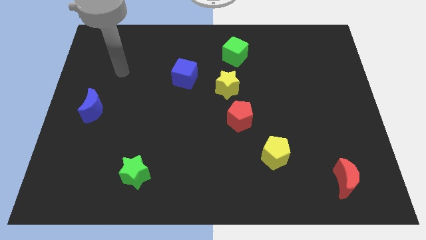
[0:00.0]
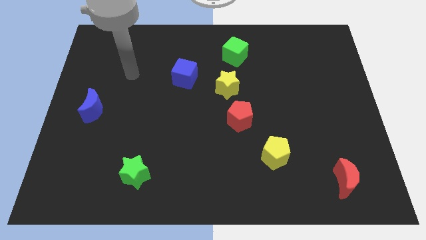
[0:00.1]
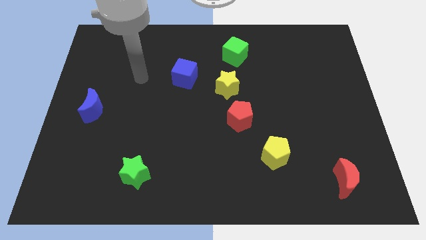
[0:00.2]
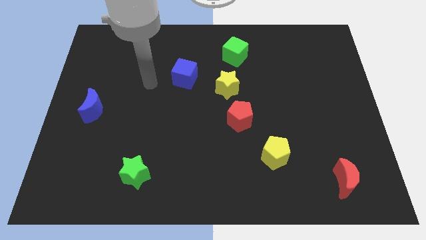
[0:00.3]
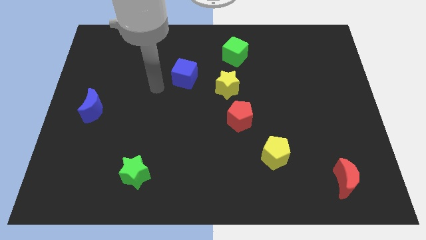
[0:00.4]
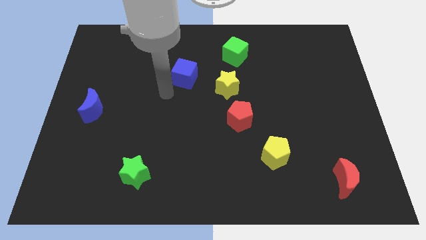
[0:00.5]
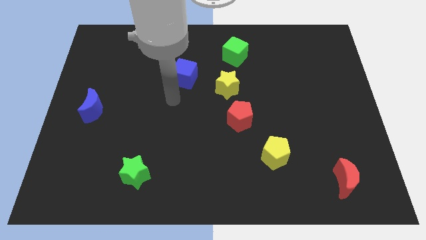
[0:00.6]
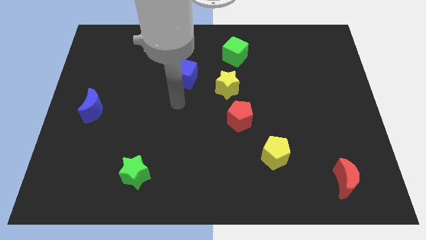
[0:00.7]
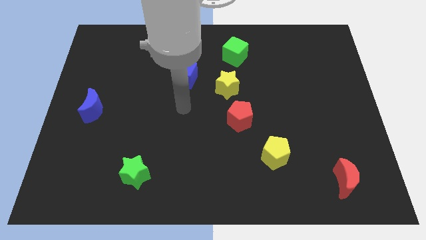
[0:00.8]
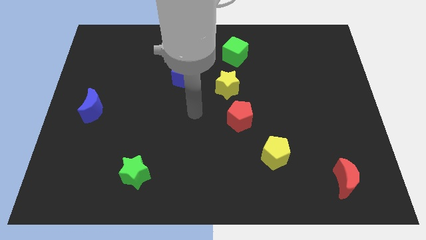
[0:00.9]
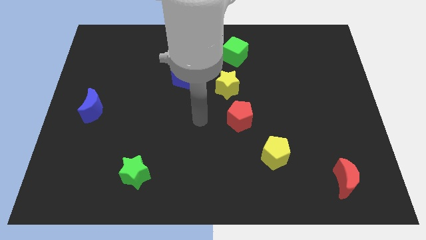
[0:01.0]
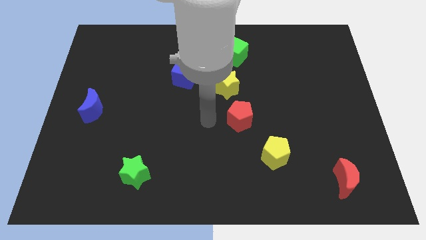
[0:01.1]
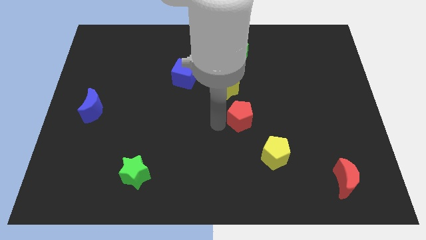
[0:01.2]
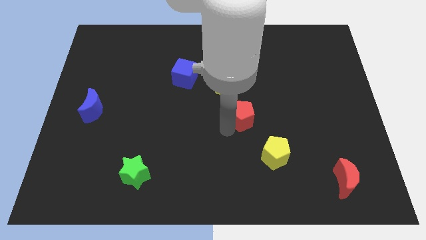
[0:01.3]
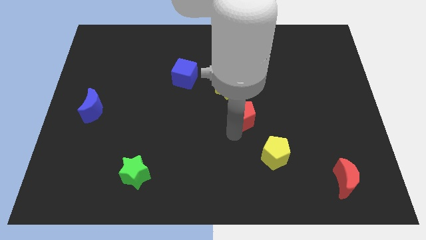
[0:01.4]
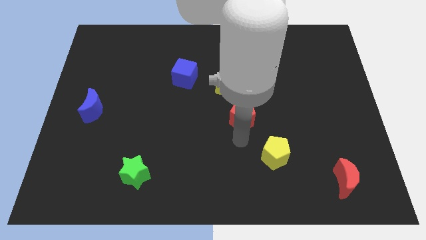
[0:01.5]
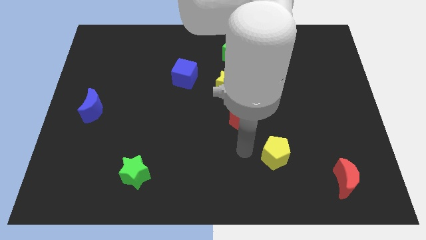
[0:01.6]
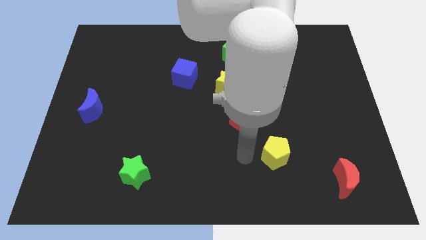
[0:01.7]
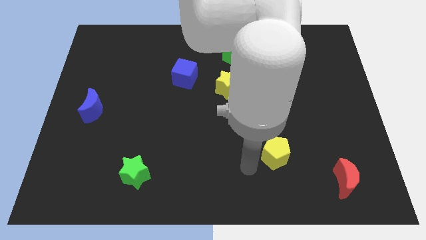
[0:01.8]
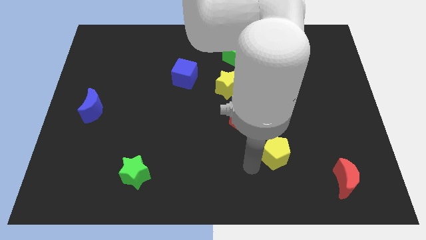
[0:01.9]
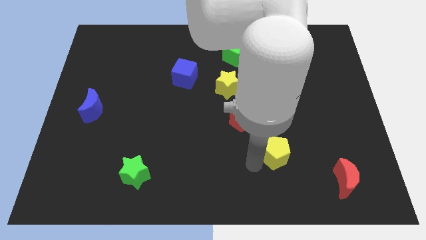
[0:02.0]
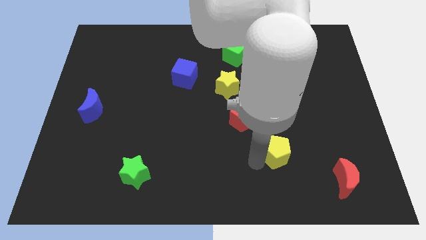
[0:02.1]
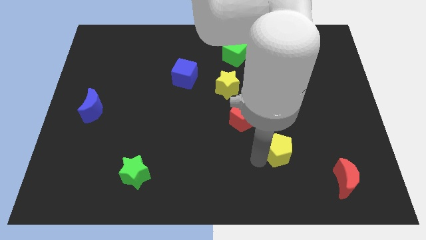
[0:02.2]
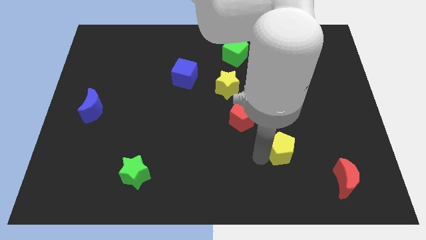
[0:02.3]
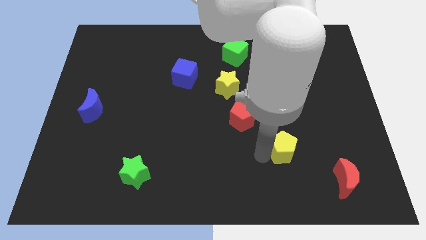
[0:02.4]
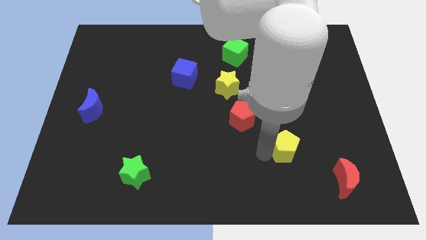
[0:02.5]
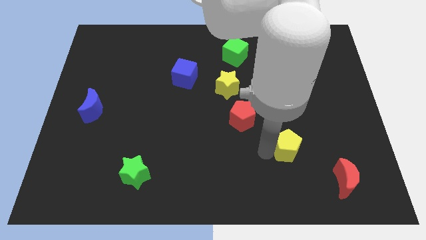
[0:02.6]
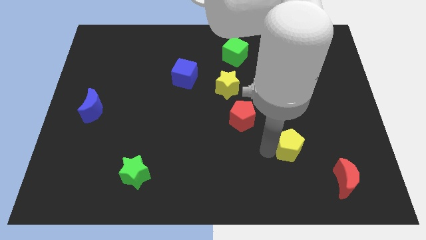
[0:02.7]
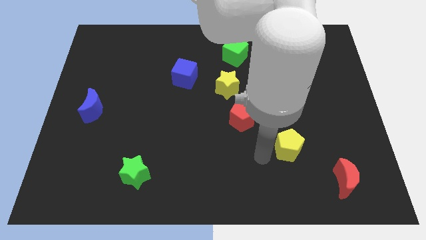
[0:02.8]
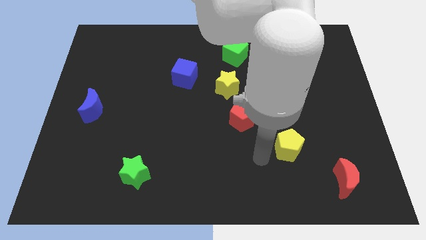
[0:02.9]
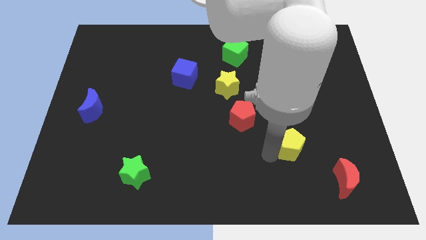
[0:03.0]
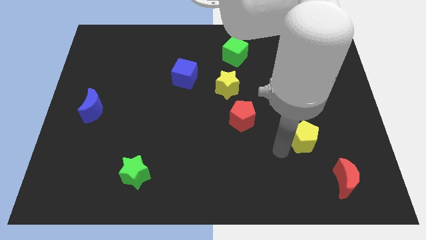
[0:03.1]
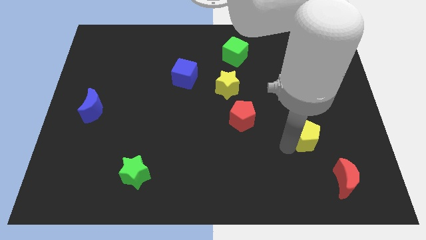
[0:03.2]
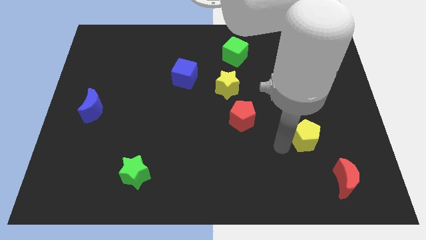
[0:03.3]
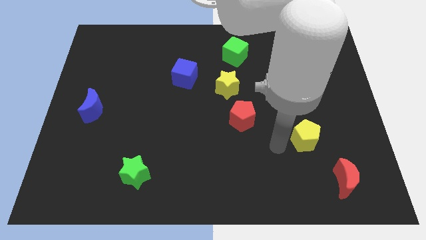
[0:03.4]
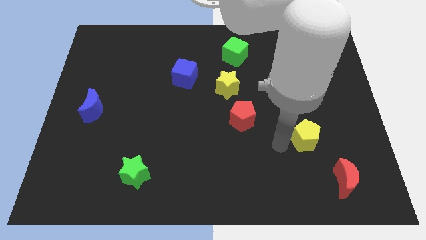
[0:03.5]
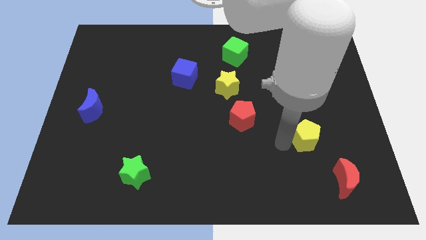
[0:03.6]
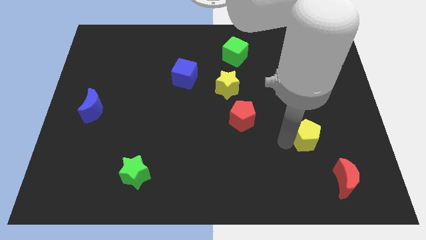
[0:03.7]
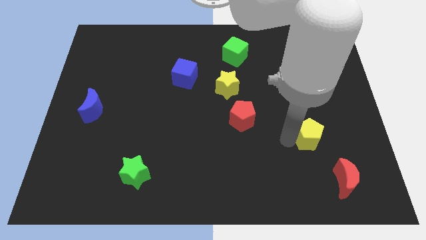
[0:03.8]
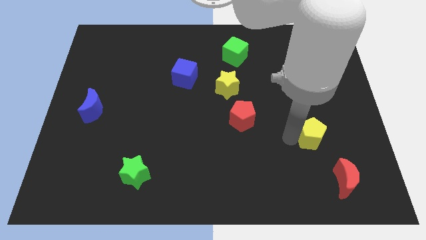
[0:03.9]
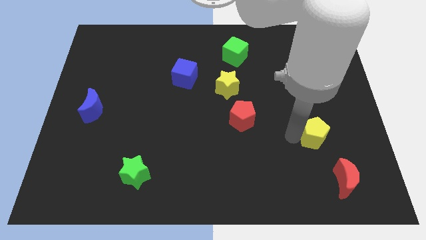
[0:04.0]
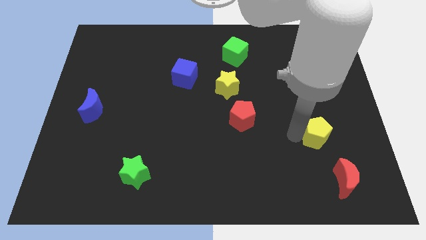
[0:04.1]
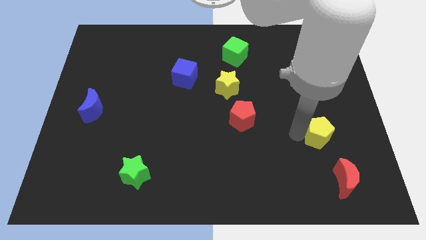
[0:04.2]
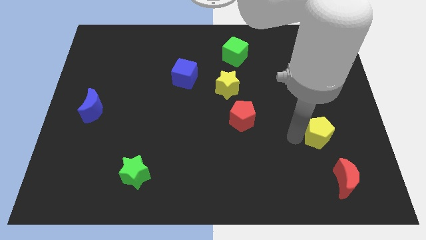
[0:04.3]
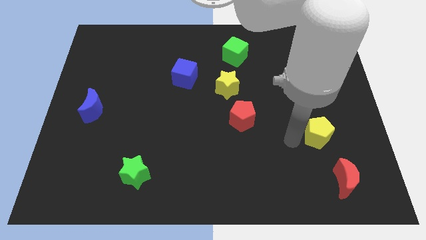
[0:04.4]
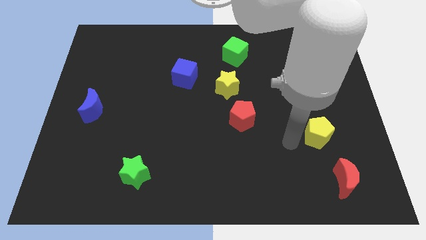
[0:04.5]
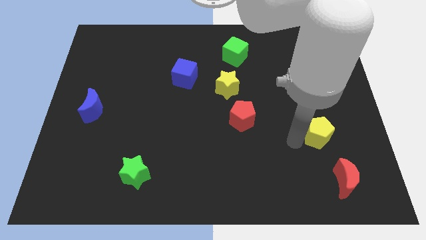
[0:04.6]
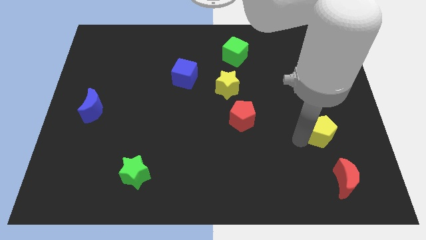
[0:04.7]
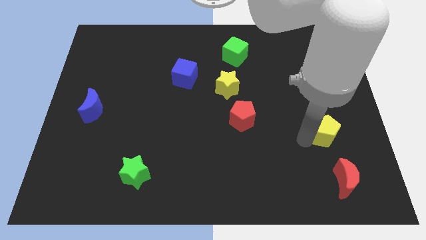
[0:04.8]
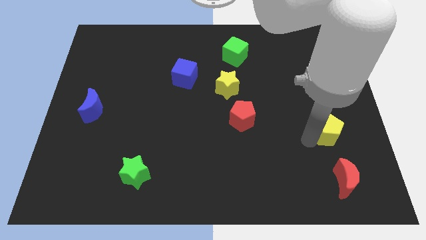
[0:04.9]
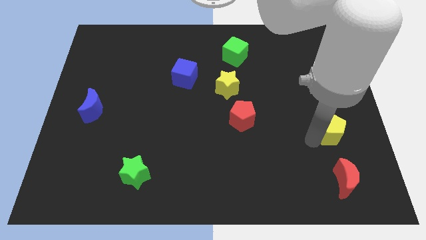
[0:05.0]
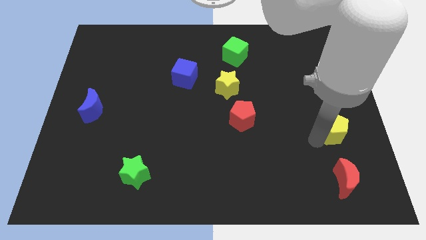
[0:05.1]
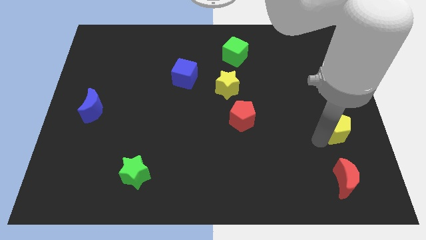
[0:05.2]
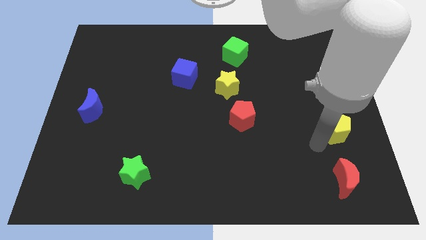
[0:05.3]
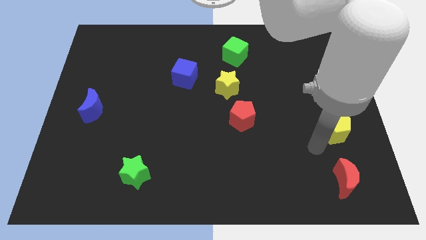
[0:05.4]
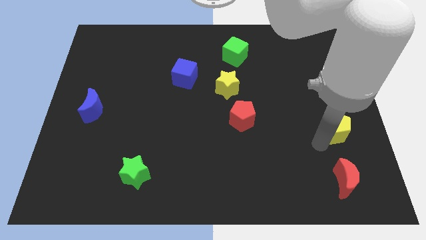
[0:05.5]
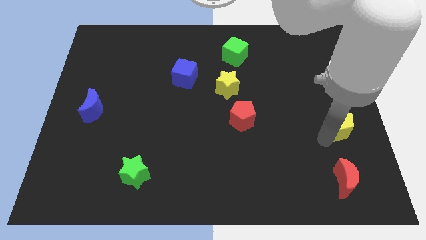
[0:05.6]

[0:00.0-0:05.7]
push the yellow pentagon to the right side

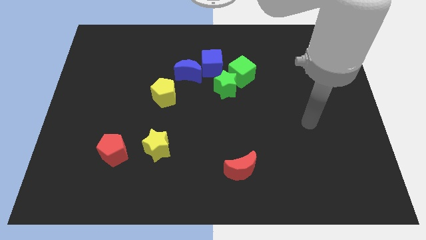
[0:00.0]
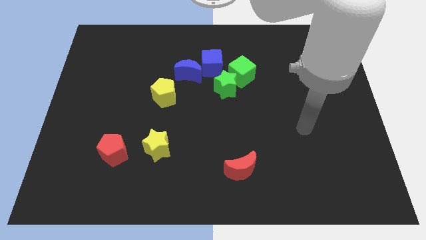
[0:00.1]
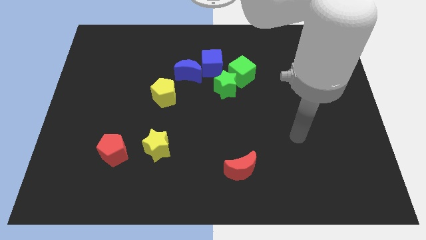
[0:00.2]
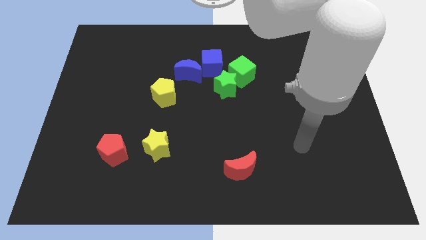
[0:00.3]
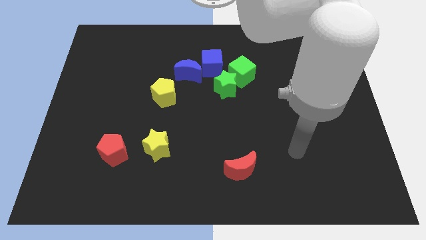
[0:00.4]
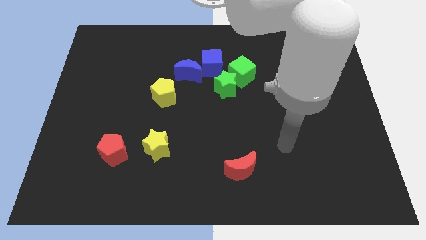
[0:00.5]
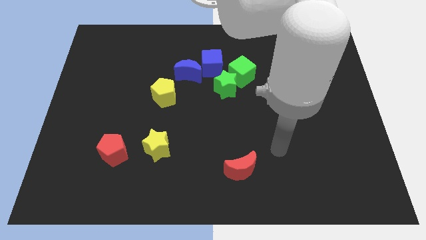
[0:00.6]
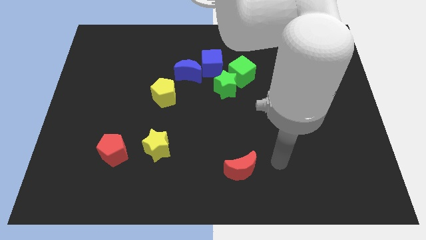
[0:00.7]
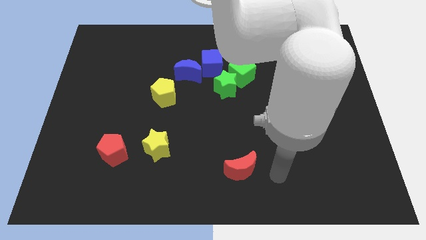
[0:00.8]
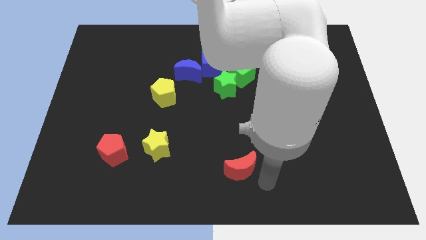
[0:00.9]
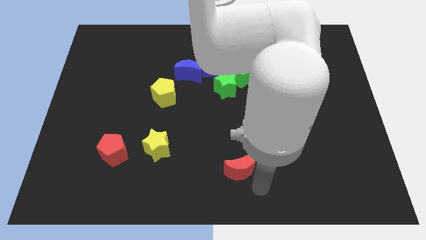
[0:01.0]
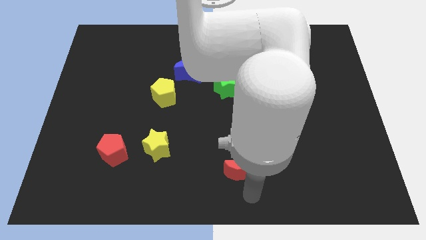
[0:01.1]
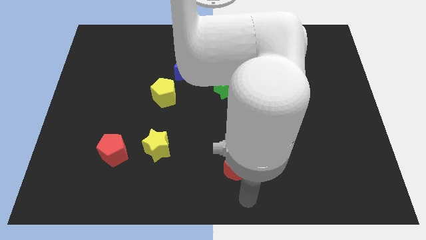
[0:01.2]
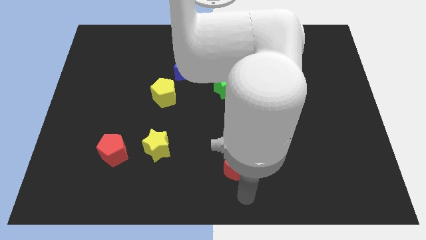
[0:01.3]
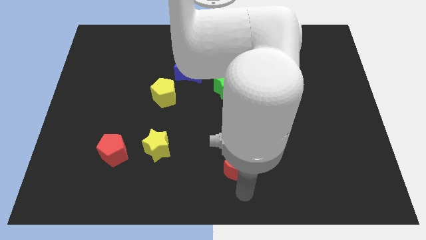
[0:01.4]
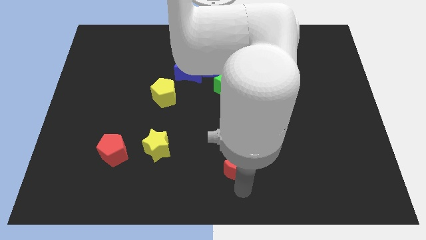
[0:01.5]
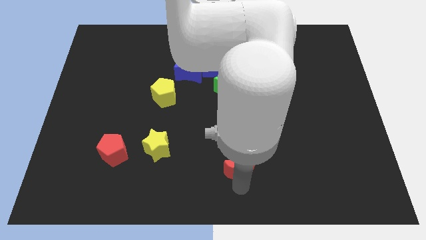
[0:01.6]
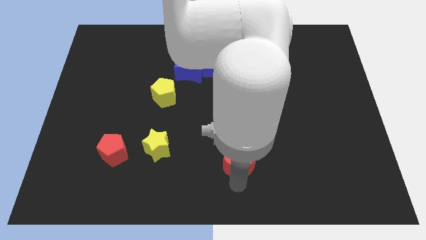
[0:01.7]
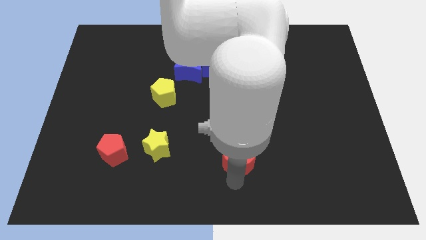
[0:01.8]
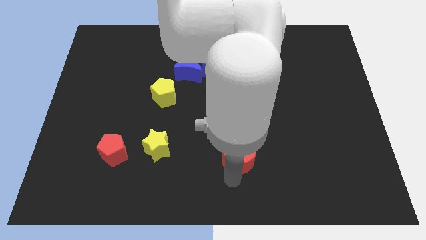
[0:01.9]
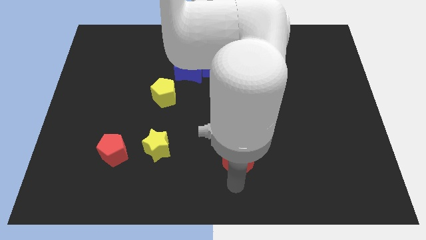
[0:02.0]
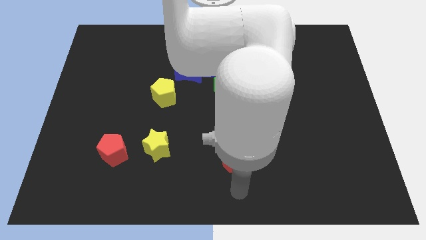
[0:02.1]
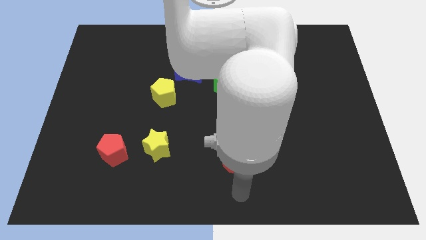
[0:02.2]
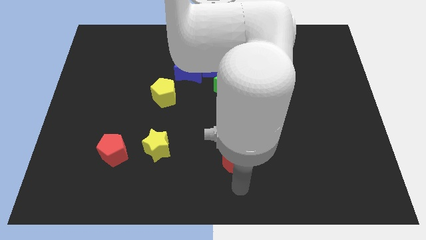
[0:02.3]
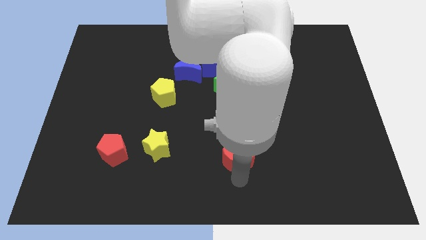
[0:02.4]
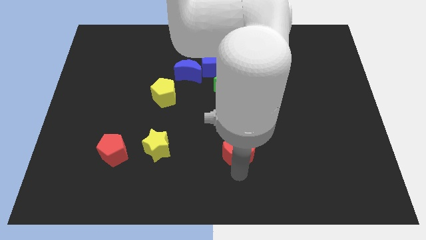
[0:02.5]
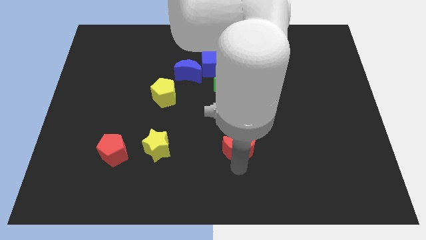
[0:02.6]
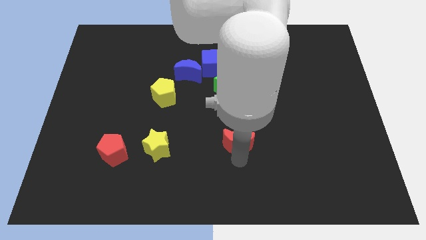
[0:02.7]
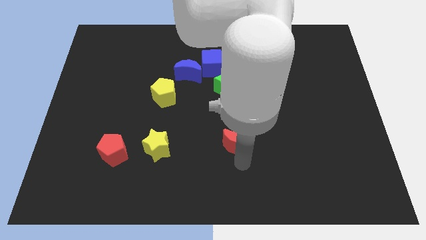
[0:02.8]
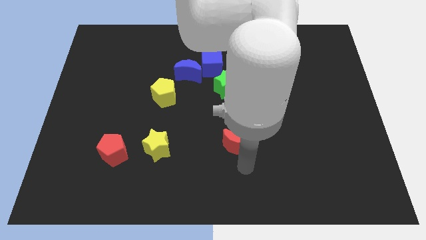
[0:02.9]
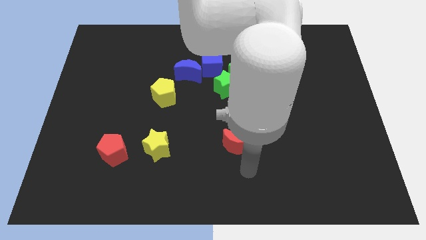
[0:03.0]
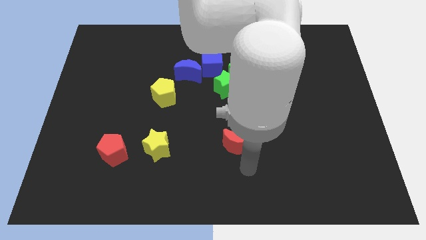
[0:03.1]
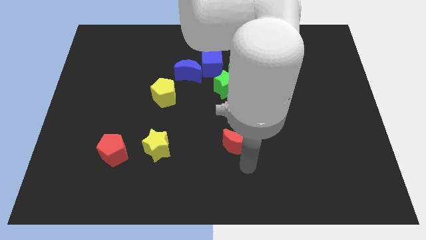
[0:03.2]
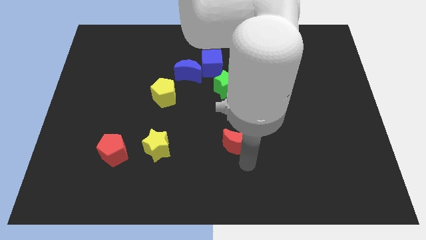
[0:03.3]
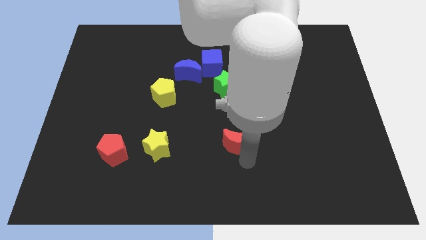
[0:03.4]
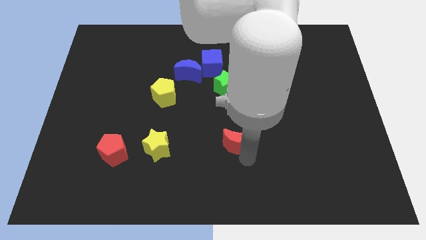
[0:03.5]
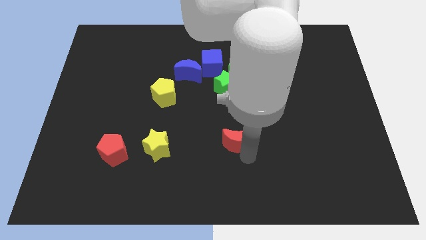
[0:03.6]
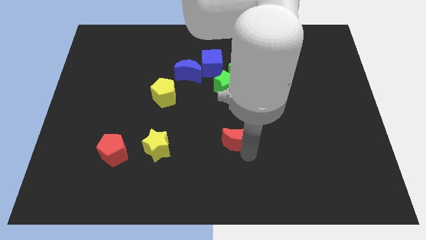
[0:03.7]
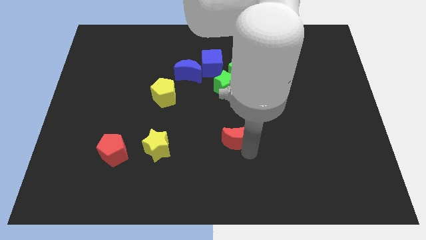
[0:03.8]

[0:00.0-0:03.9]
slide the red moon to the center of the board
